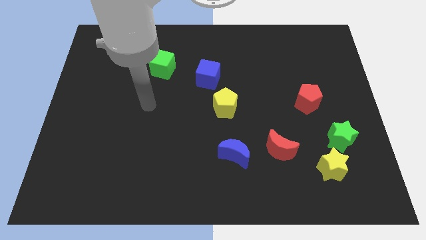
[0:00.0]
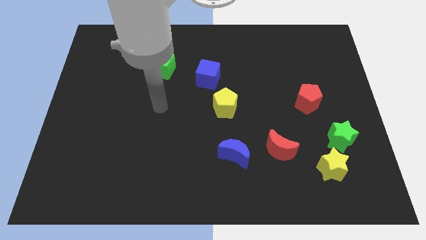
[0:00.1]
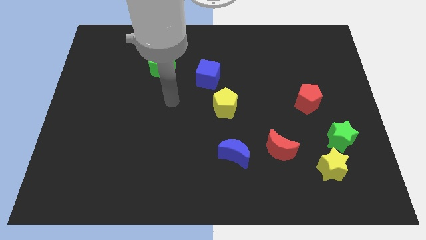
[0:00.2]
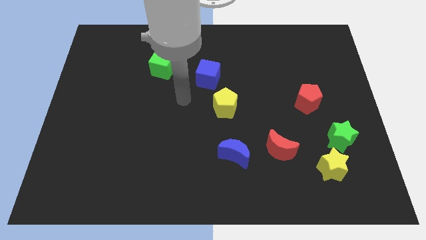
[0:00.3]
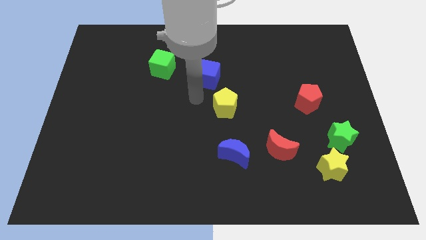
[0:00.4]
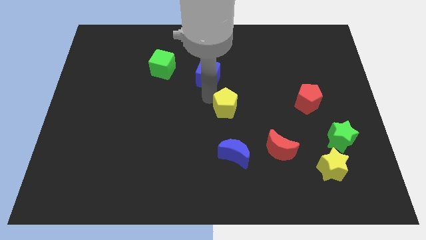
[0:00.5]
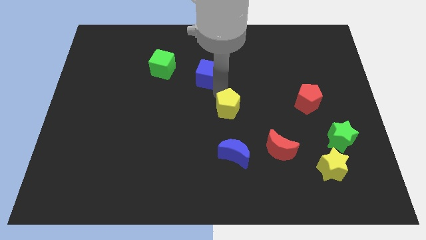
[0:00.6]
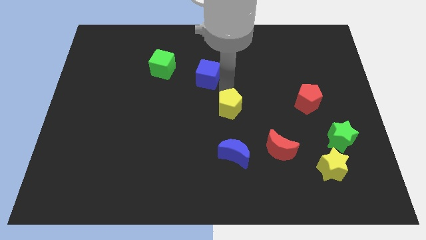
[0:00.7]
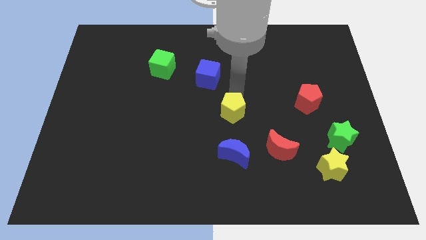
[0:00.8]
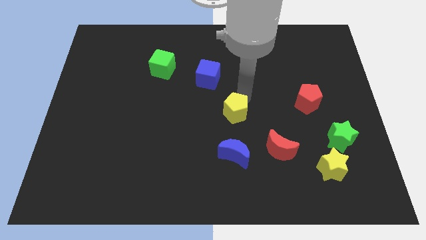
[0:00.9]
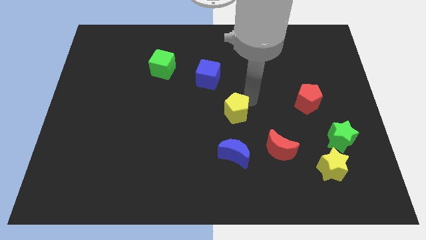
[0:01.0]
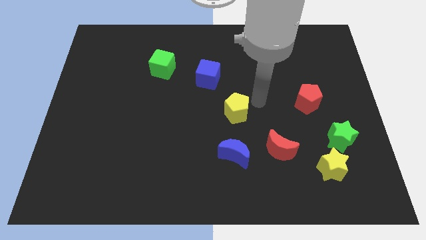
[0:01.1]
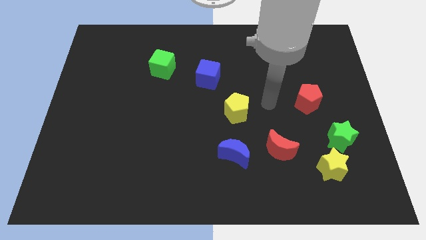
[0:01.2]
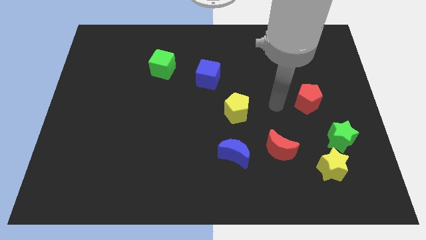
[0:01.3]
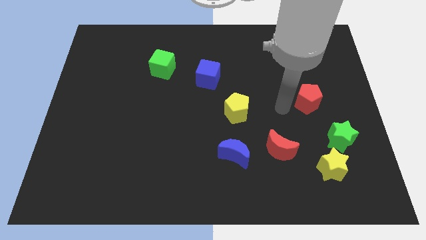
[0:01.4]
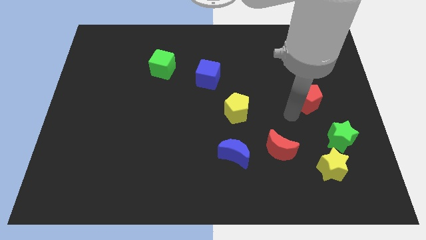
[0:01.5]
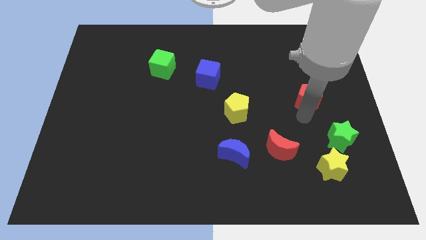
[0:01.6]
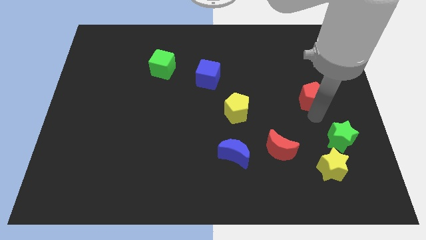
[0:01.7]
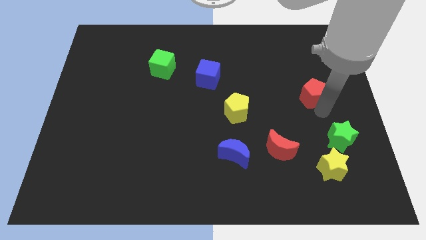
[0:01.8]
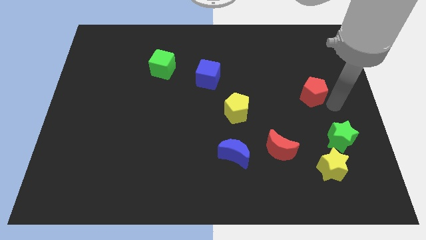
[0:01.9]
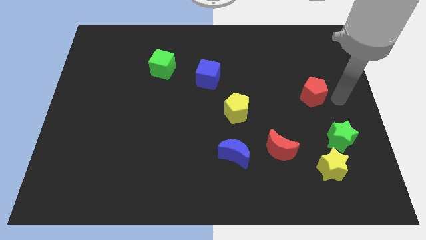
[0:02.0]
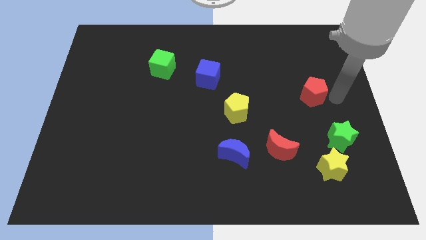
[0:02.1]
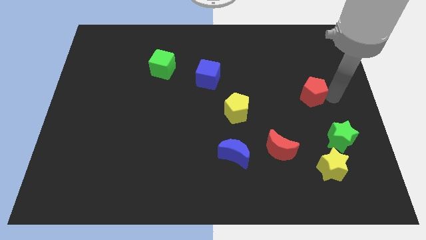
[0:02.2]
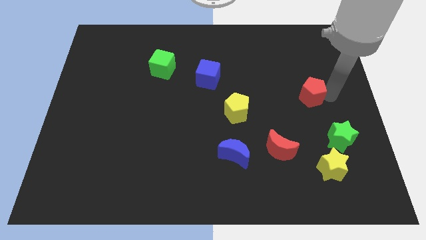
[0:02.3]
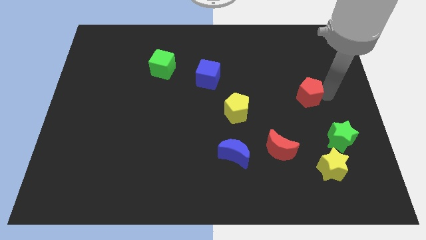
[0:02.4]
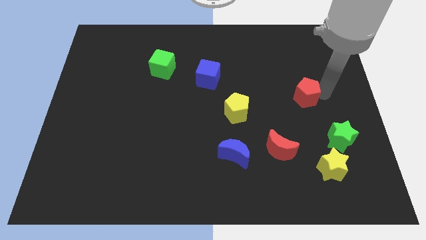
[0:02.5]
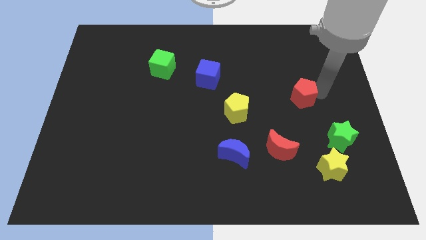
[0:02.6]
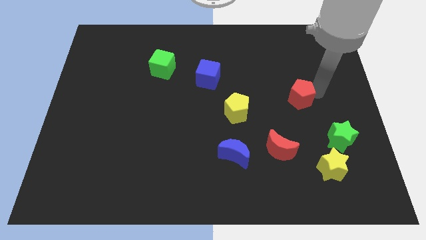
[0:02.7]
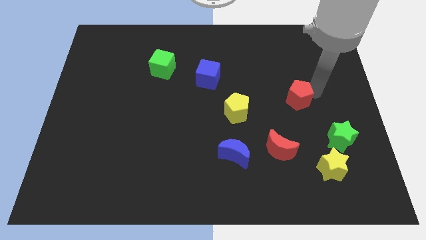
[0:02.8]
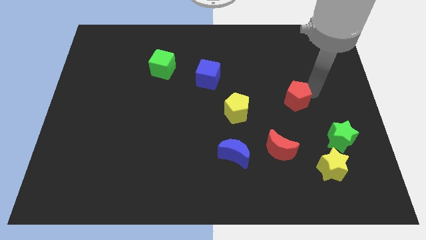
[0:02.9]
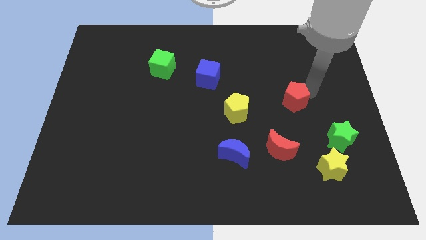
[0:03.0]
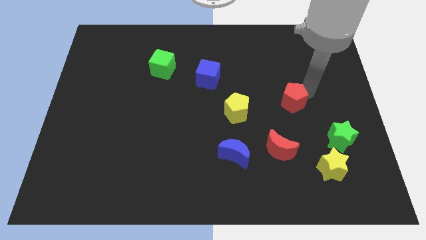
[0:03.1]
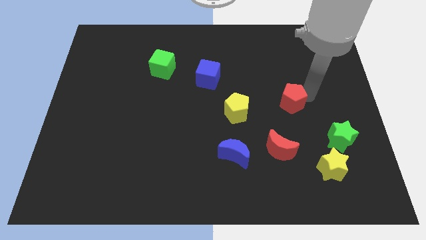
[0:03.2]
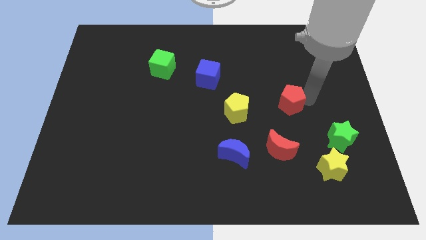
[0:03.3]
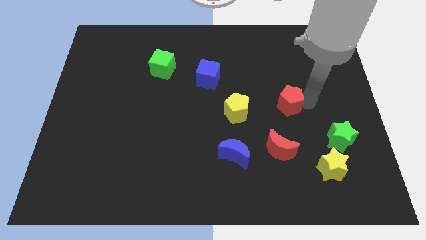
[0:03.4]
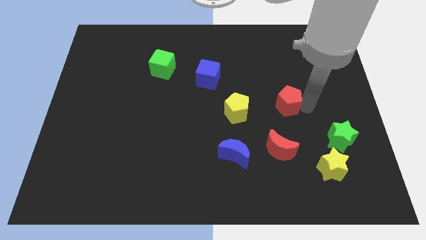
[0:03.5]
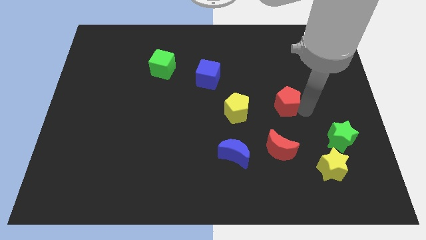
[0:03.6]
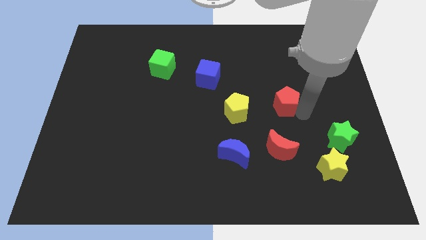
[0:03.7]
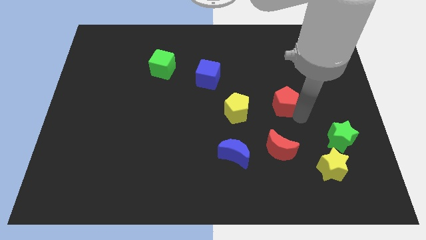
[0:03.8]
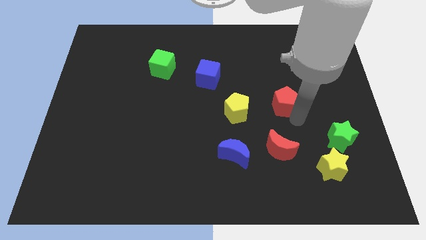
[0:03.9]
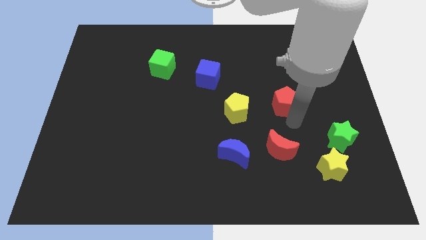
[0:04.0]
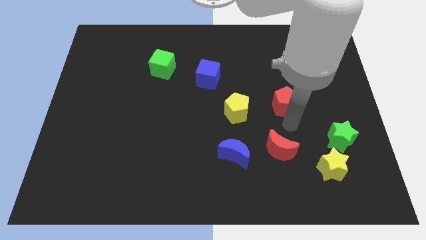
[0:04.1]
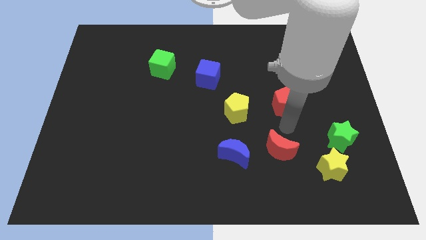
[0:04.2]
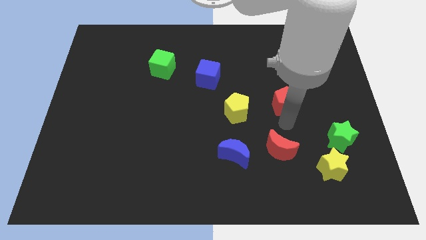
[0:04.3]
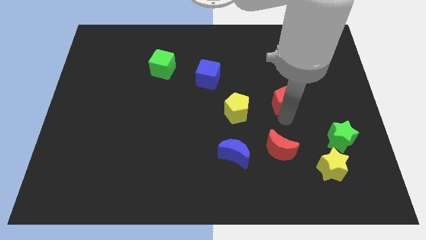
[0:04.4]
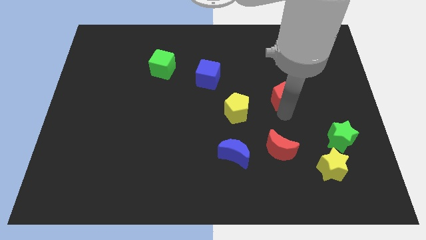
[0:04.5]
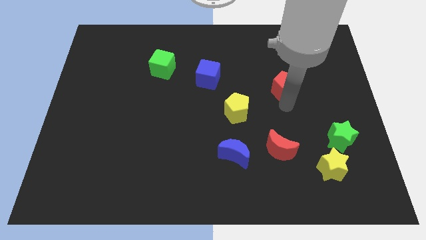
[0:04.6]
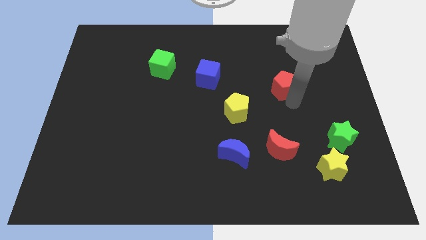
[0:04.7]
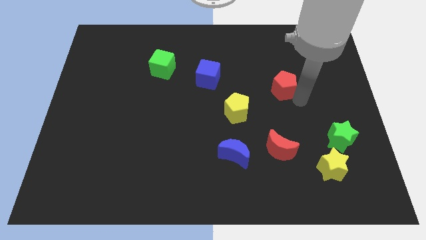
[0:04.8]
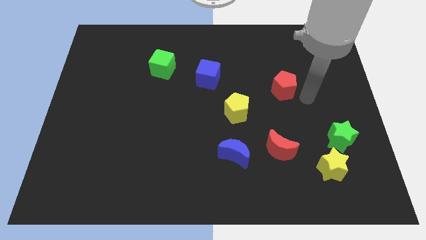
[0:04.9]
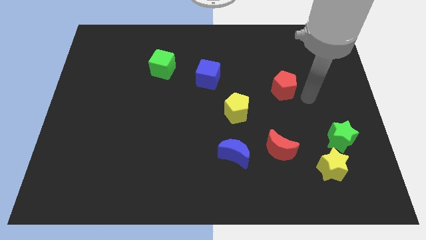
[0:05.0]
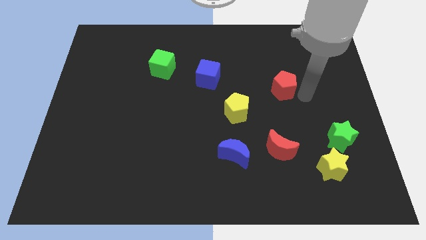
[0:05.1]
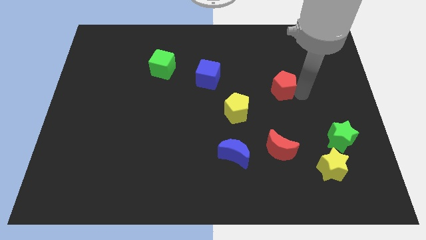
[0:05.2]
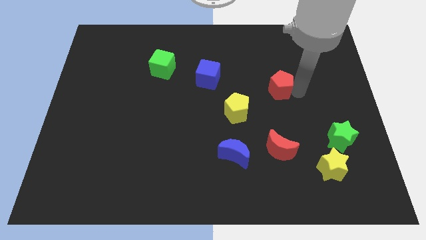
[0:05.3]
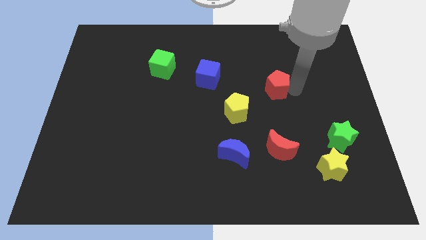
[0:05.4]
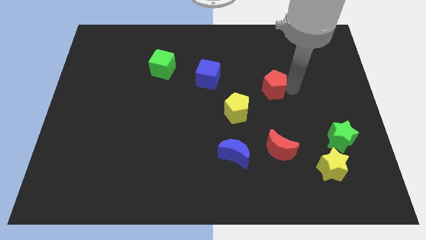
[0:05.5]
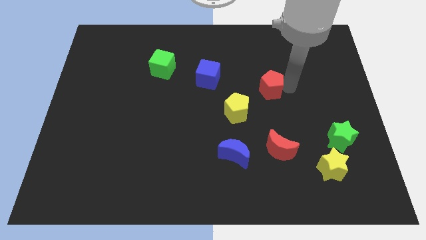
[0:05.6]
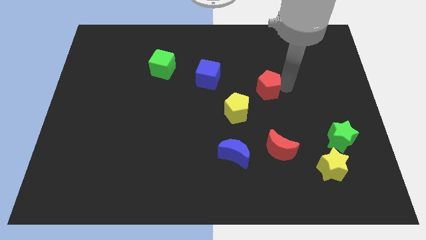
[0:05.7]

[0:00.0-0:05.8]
slide the red pentagon just right of the blue cube
